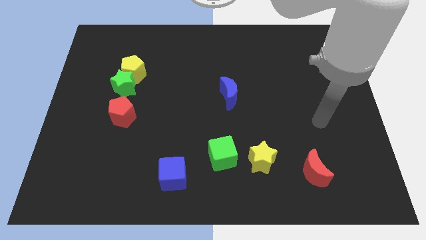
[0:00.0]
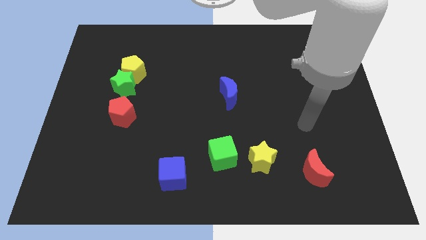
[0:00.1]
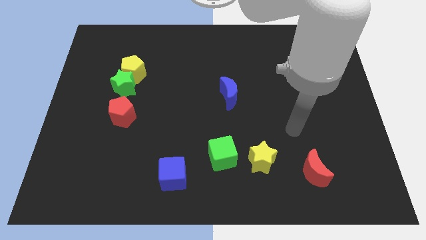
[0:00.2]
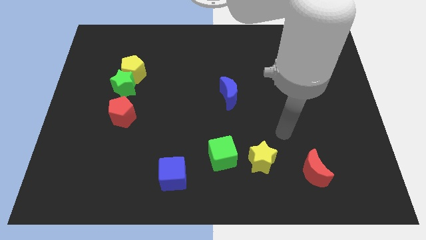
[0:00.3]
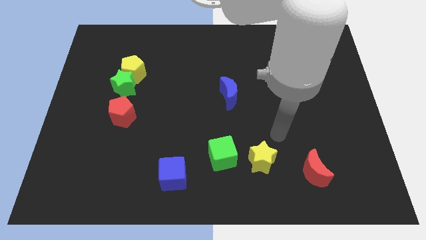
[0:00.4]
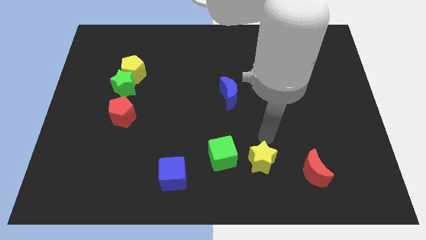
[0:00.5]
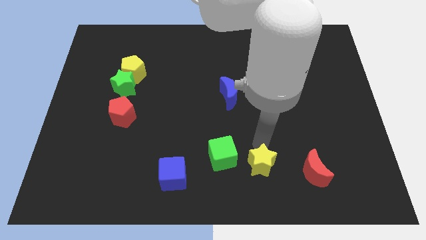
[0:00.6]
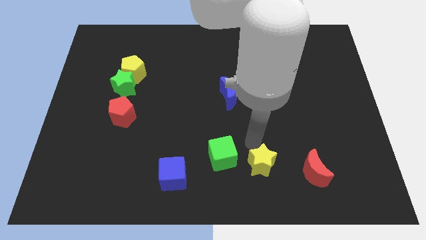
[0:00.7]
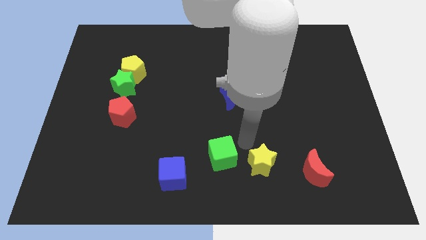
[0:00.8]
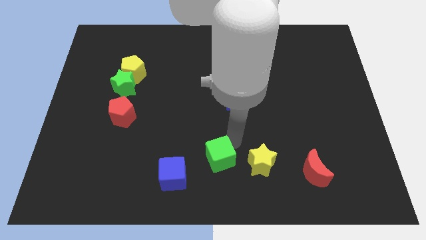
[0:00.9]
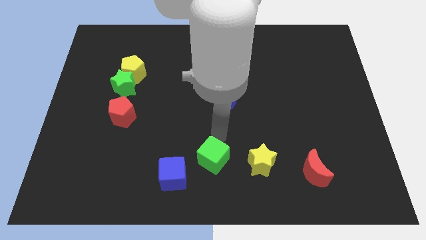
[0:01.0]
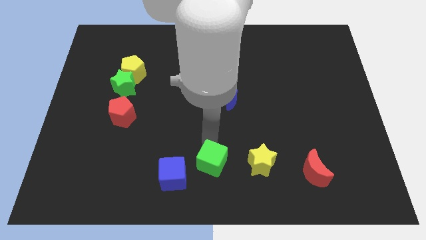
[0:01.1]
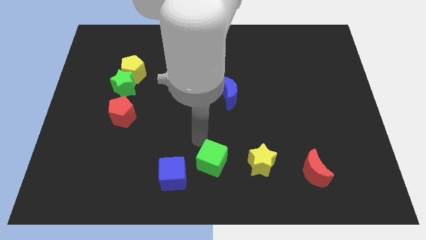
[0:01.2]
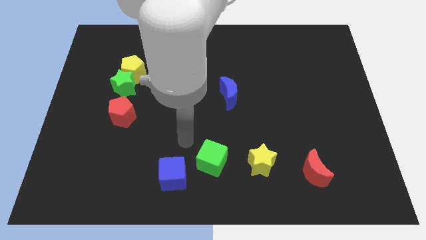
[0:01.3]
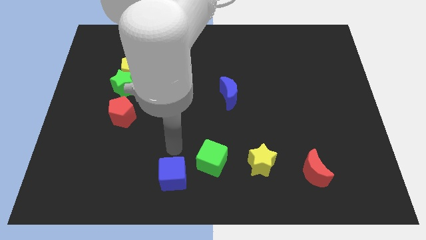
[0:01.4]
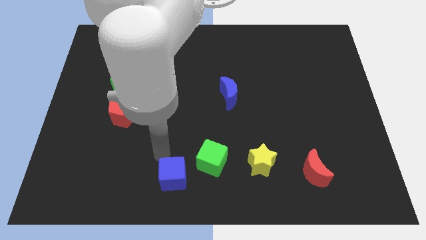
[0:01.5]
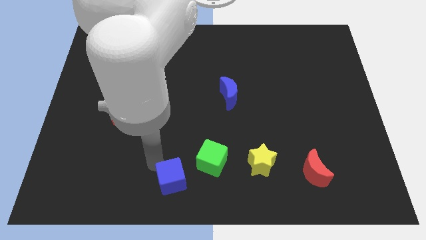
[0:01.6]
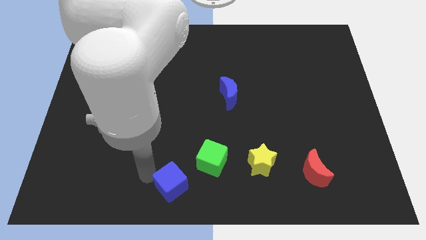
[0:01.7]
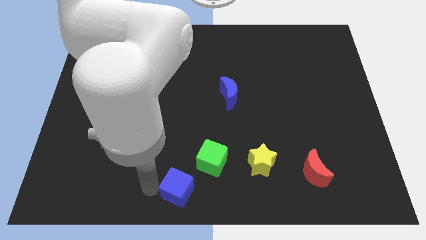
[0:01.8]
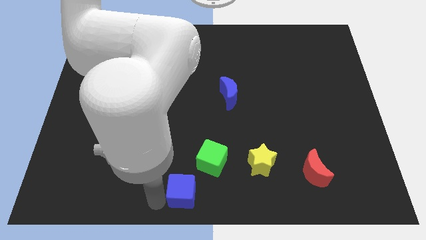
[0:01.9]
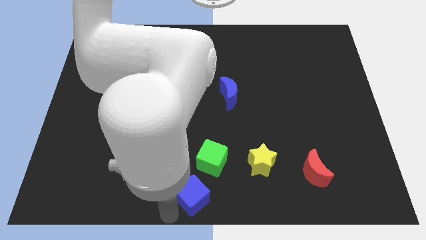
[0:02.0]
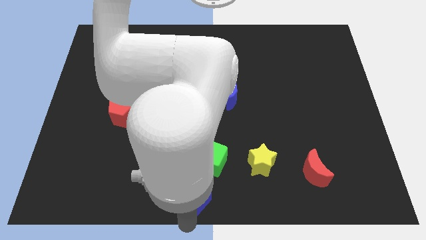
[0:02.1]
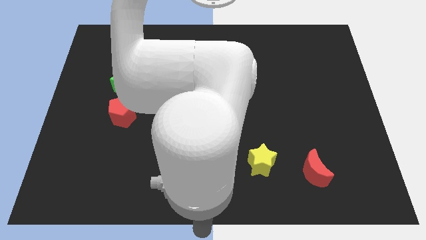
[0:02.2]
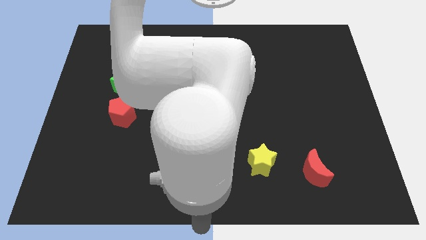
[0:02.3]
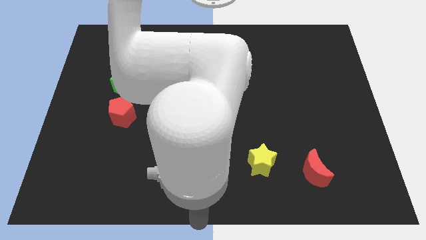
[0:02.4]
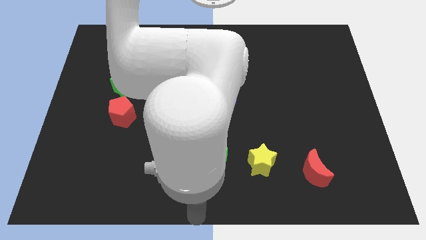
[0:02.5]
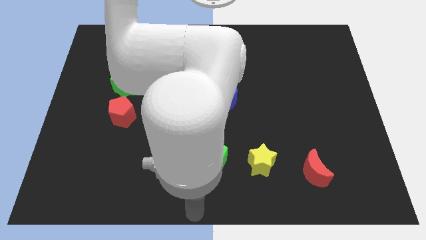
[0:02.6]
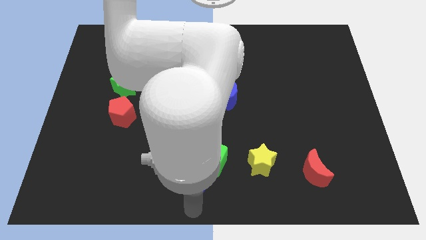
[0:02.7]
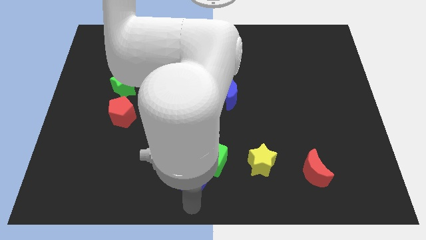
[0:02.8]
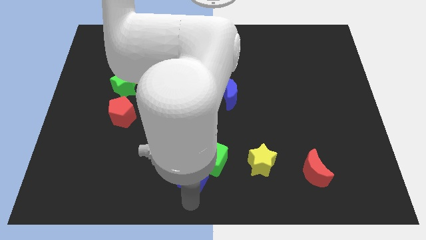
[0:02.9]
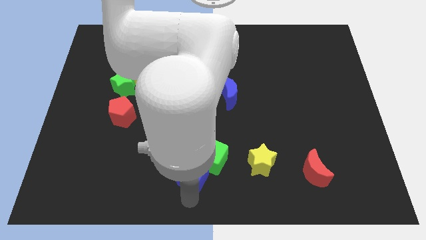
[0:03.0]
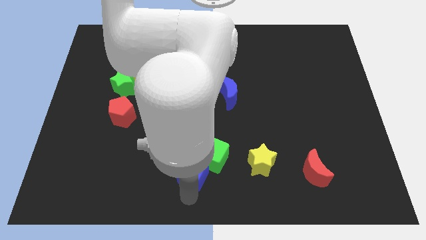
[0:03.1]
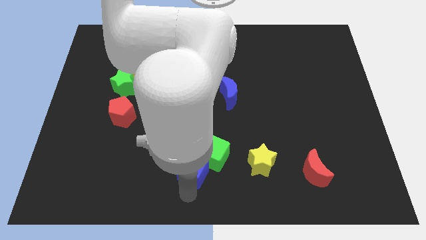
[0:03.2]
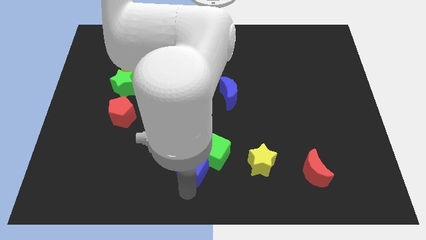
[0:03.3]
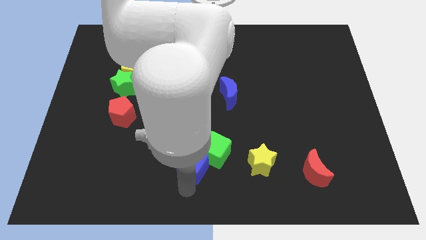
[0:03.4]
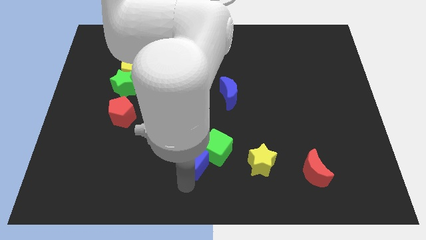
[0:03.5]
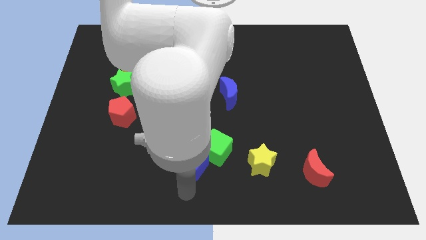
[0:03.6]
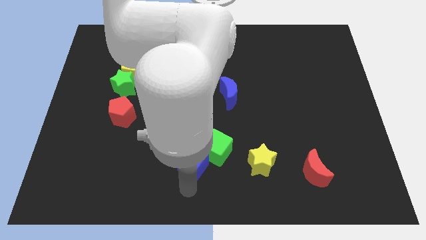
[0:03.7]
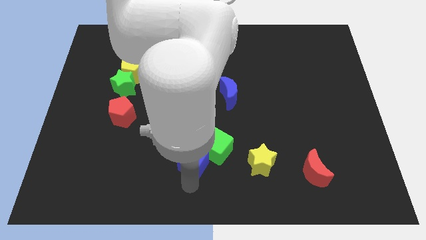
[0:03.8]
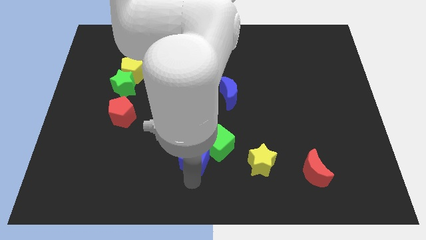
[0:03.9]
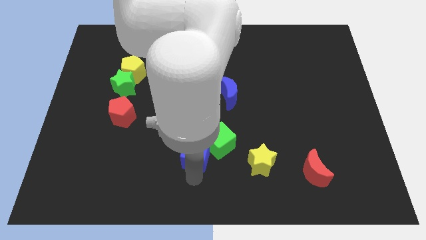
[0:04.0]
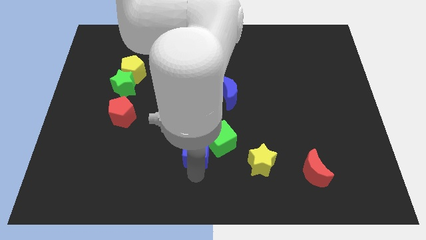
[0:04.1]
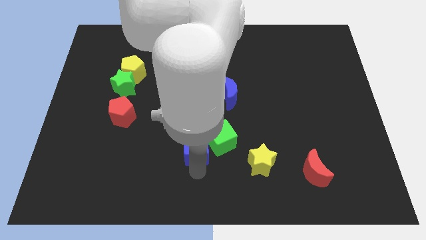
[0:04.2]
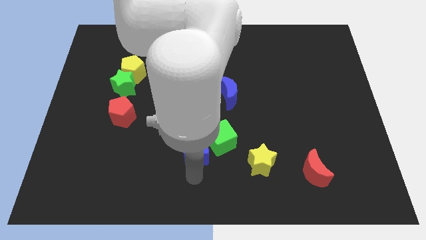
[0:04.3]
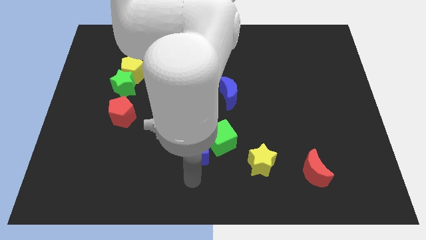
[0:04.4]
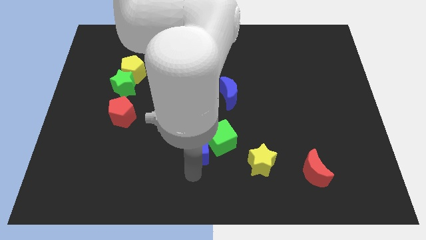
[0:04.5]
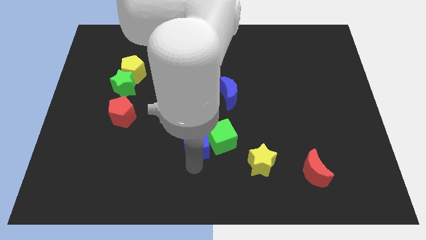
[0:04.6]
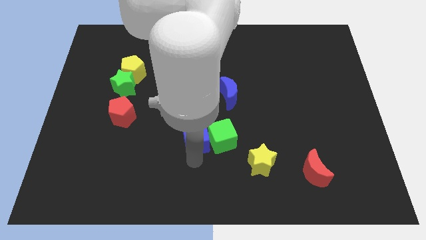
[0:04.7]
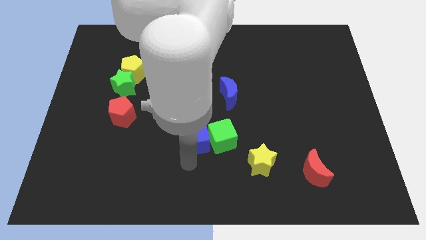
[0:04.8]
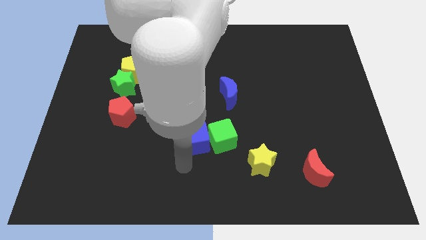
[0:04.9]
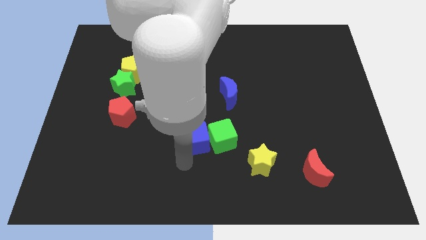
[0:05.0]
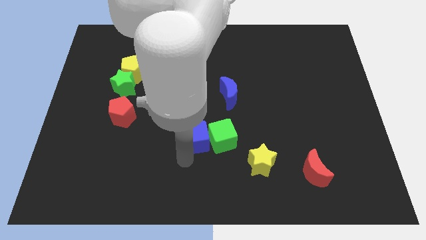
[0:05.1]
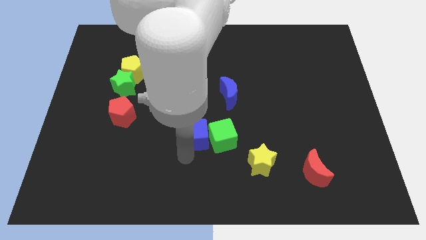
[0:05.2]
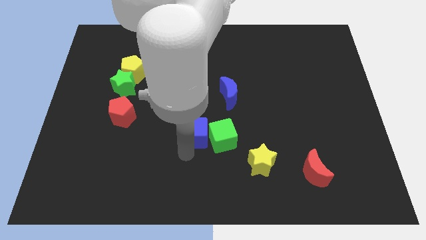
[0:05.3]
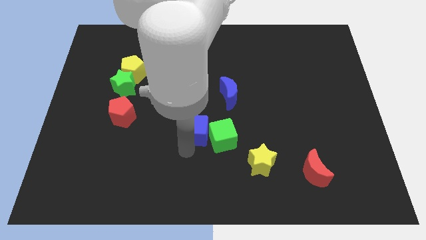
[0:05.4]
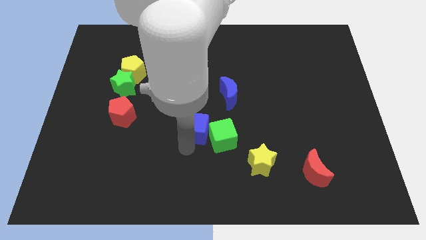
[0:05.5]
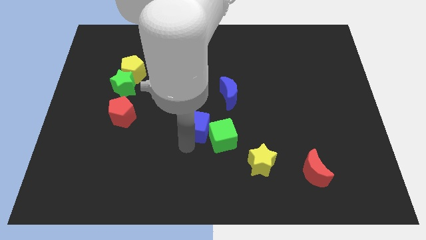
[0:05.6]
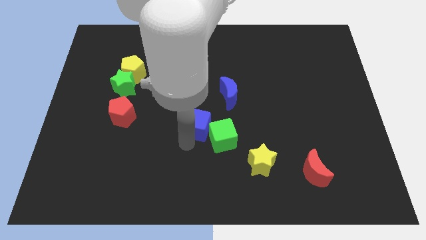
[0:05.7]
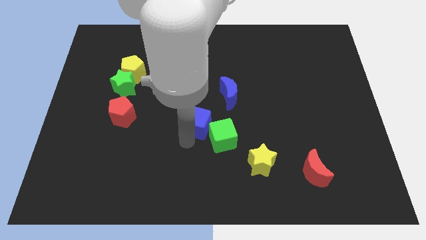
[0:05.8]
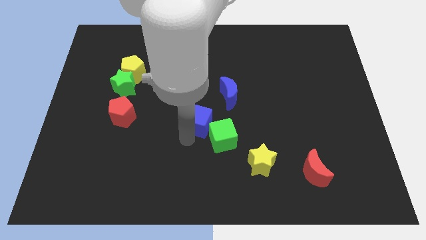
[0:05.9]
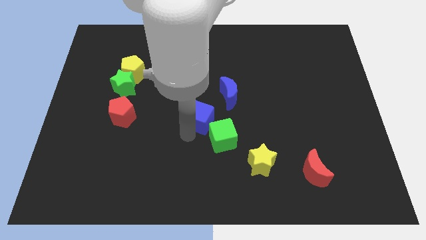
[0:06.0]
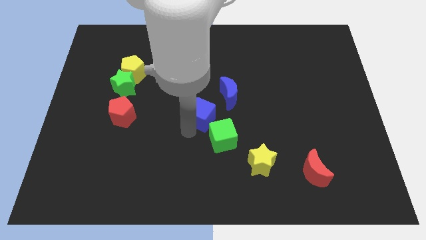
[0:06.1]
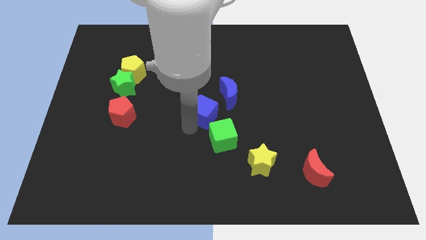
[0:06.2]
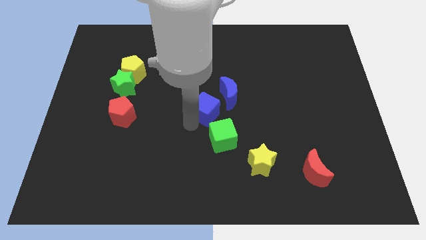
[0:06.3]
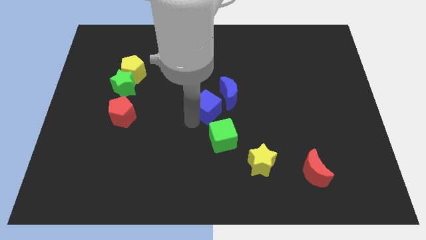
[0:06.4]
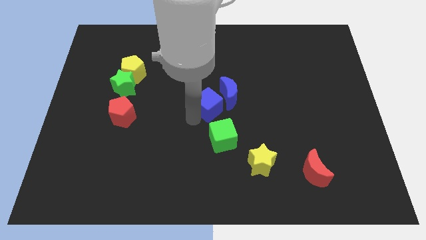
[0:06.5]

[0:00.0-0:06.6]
put the blue cube close to the blue moon

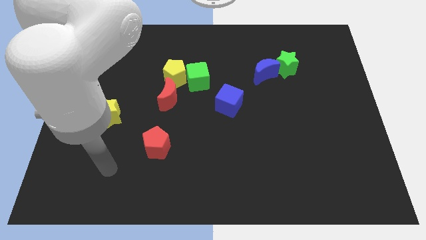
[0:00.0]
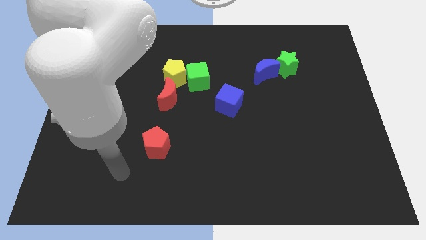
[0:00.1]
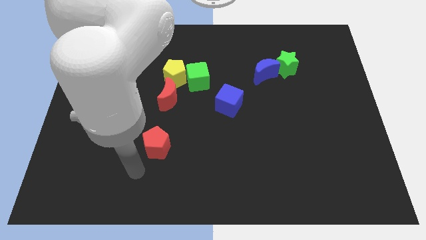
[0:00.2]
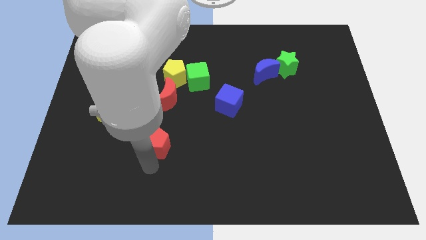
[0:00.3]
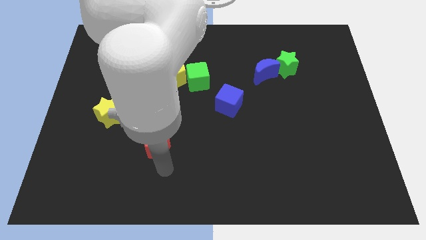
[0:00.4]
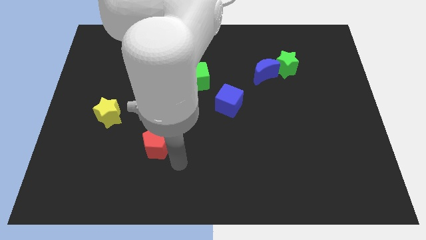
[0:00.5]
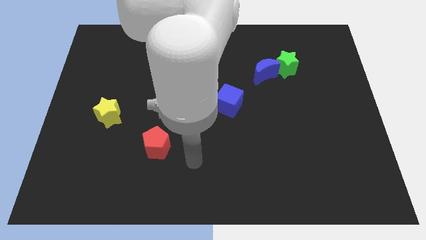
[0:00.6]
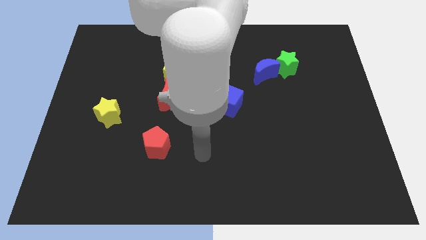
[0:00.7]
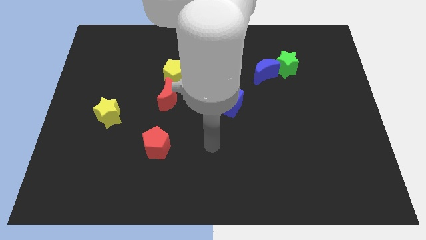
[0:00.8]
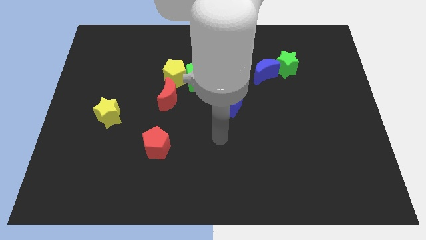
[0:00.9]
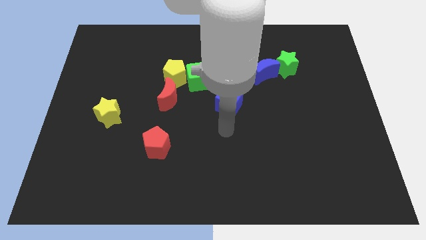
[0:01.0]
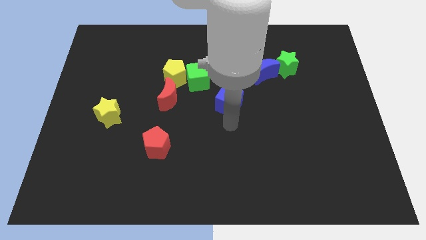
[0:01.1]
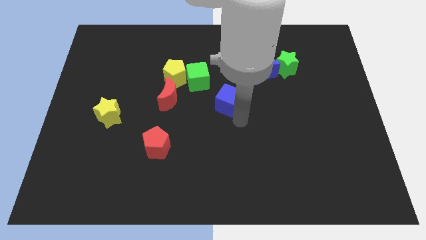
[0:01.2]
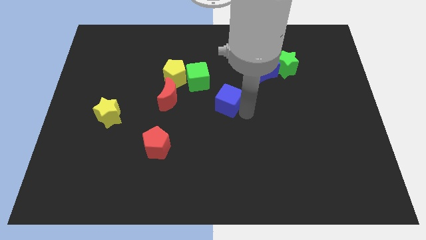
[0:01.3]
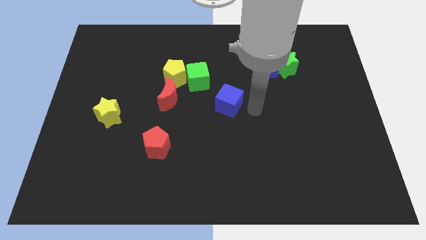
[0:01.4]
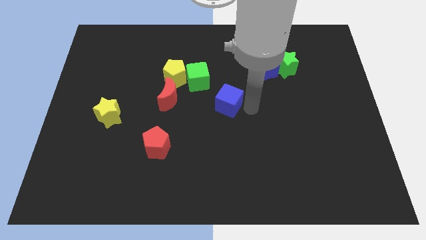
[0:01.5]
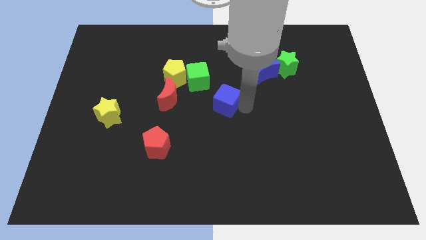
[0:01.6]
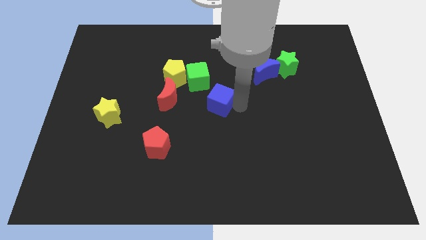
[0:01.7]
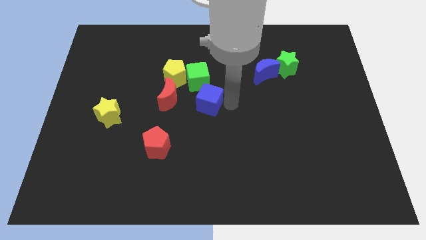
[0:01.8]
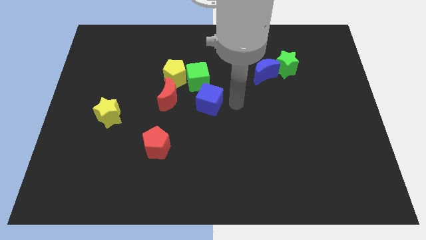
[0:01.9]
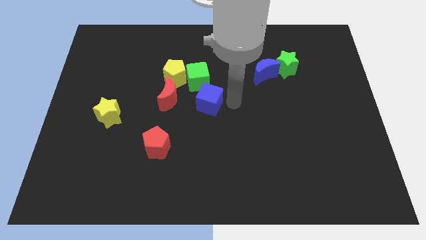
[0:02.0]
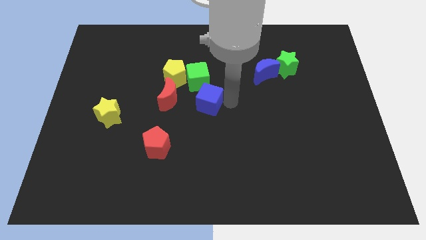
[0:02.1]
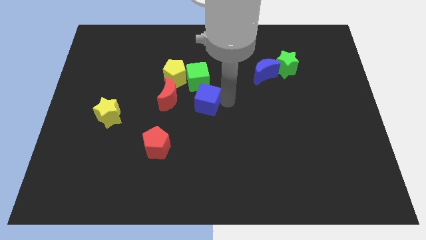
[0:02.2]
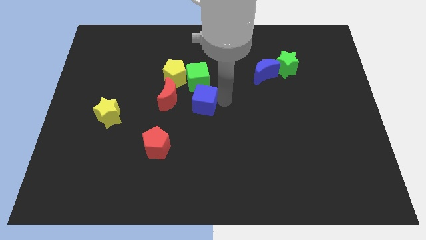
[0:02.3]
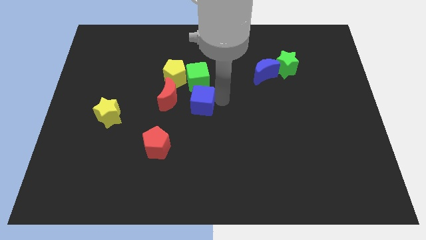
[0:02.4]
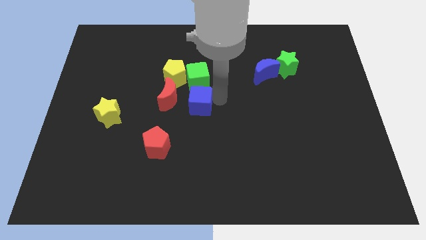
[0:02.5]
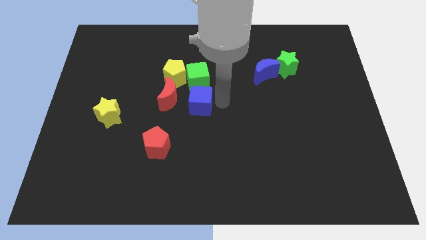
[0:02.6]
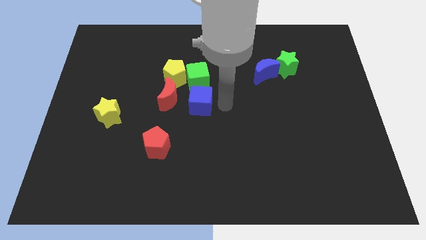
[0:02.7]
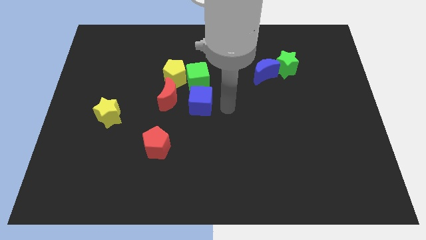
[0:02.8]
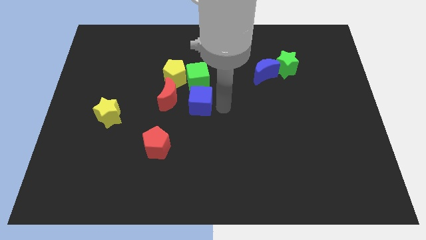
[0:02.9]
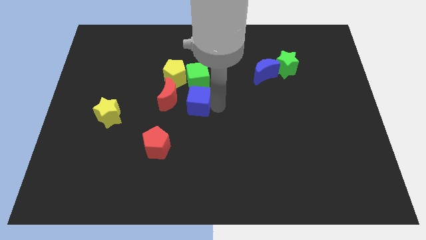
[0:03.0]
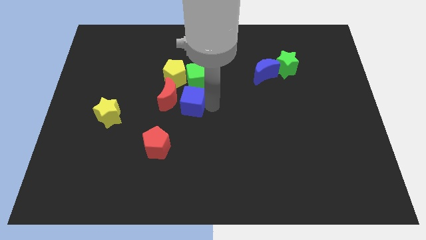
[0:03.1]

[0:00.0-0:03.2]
push the blue cube towards the red moon
